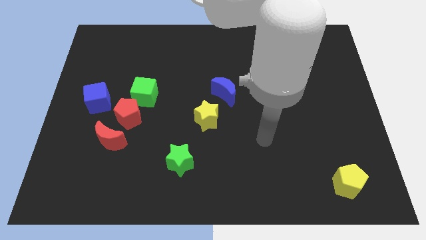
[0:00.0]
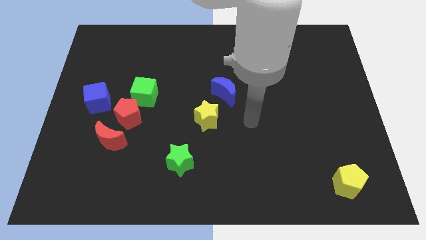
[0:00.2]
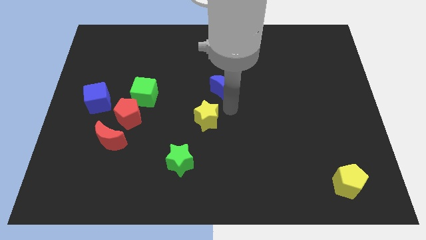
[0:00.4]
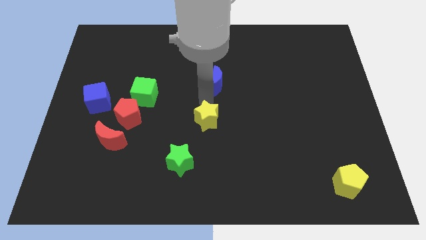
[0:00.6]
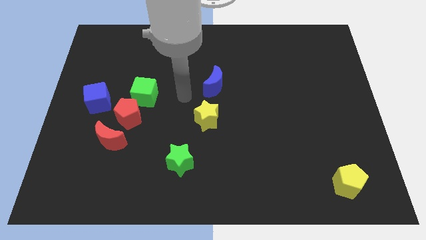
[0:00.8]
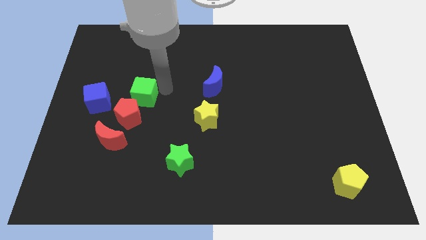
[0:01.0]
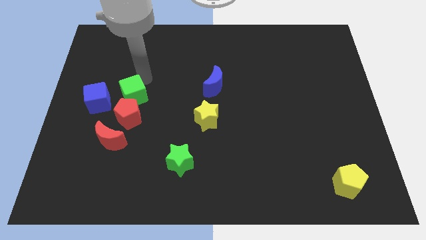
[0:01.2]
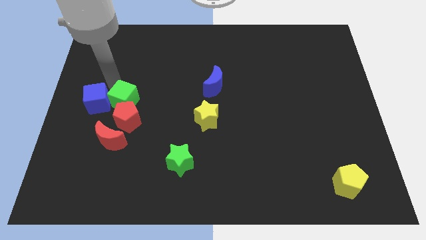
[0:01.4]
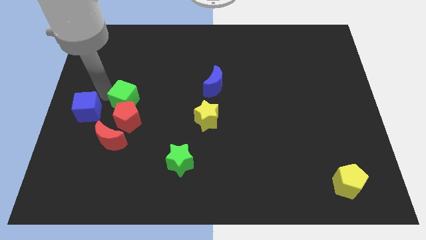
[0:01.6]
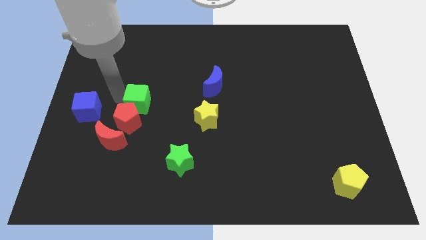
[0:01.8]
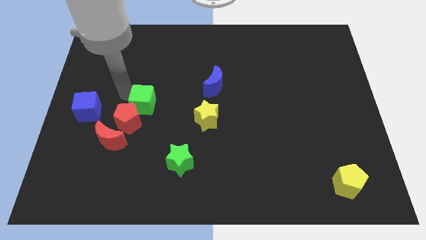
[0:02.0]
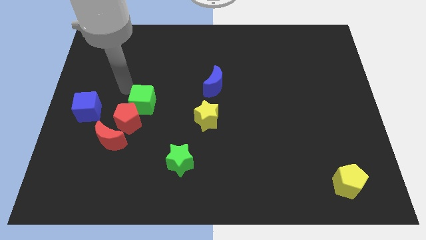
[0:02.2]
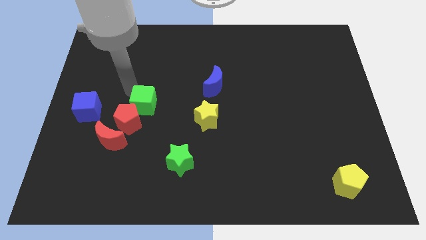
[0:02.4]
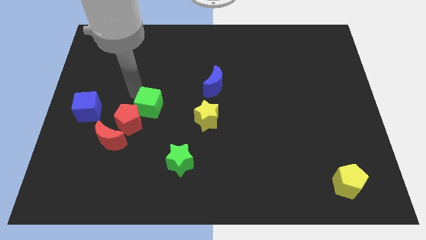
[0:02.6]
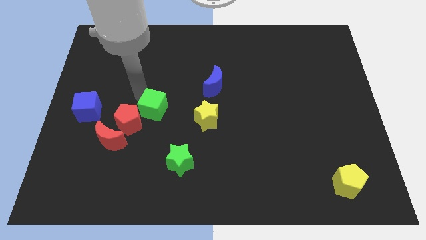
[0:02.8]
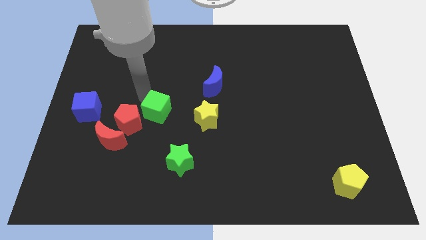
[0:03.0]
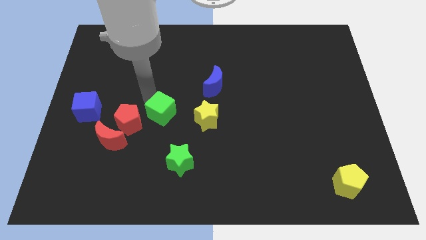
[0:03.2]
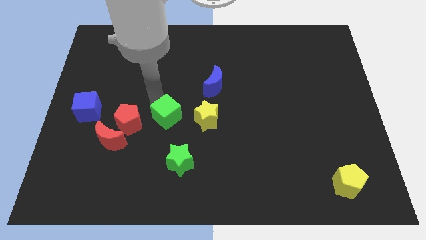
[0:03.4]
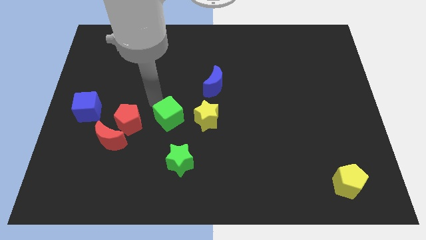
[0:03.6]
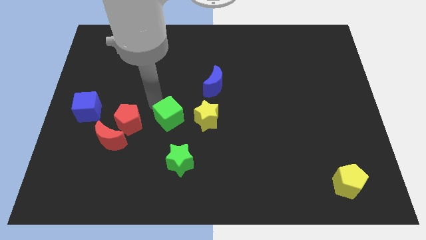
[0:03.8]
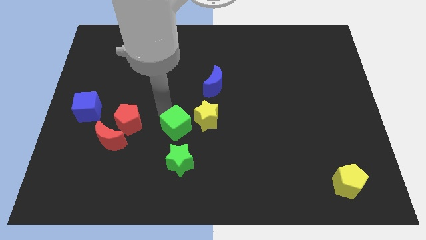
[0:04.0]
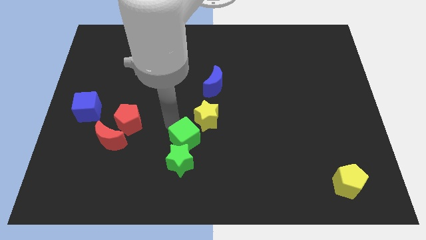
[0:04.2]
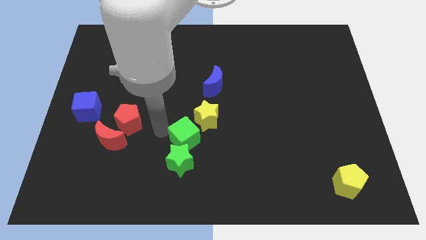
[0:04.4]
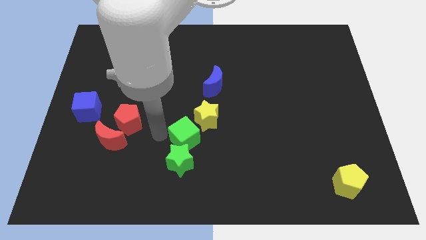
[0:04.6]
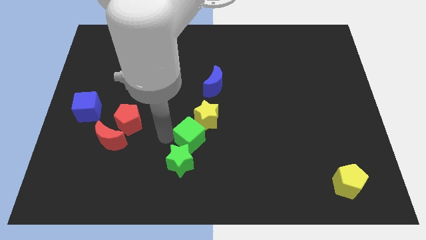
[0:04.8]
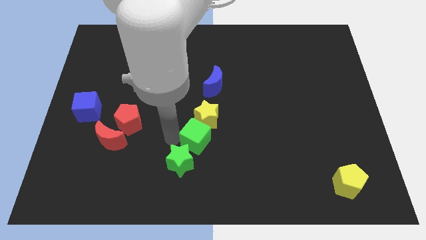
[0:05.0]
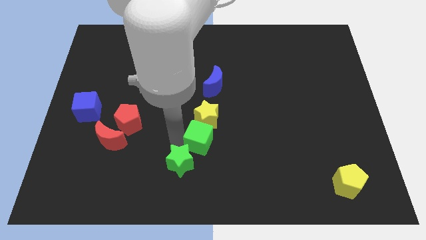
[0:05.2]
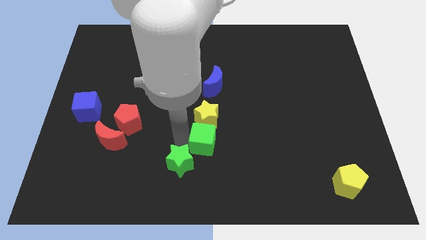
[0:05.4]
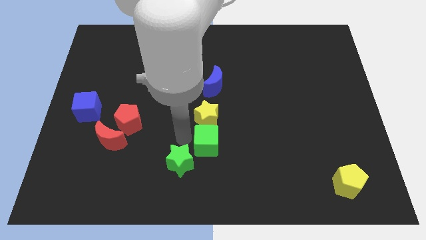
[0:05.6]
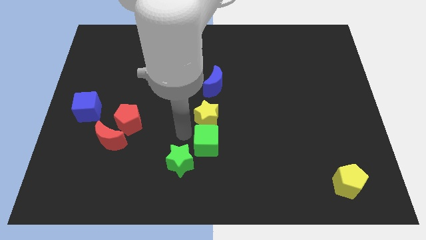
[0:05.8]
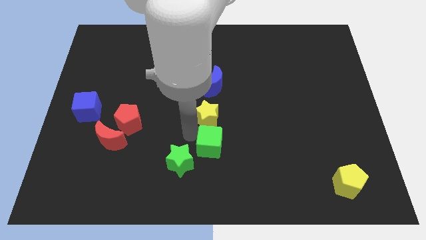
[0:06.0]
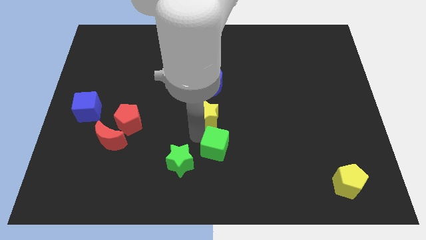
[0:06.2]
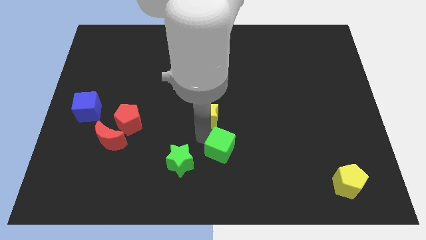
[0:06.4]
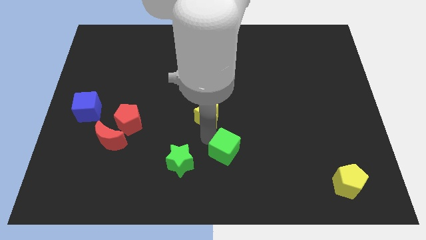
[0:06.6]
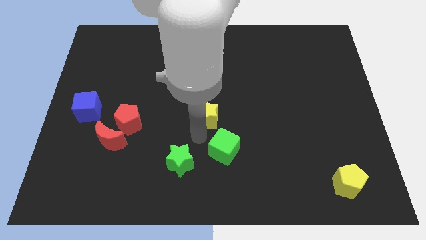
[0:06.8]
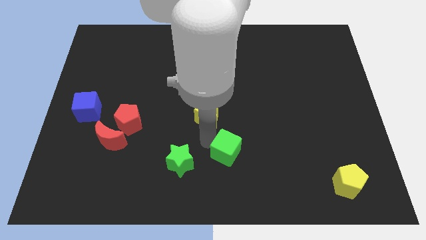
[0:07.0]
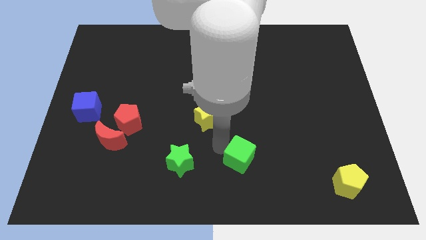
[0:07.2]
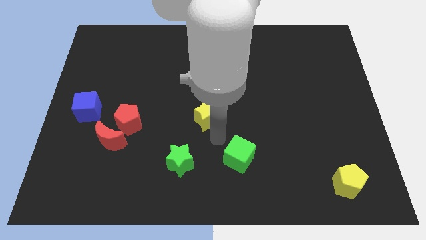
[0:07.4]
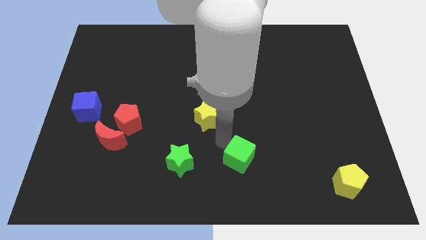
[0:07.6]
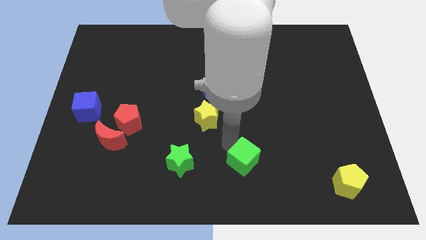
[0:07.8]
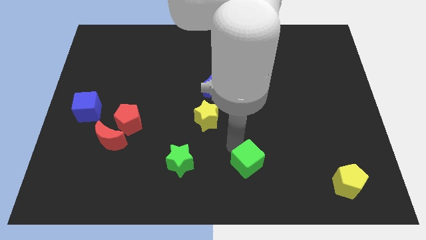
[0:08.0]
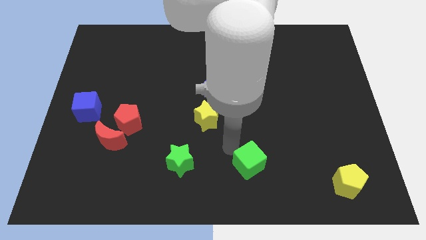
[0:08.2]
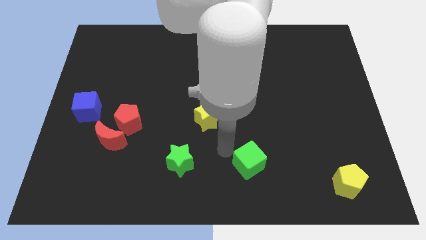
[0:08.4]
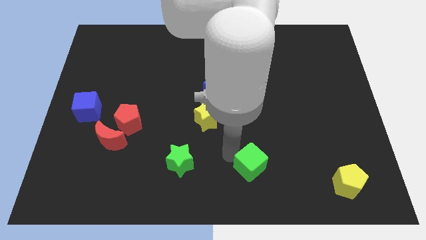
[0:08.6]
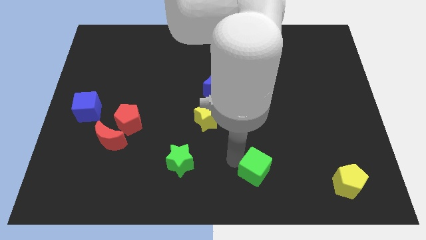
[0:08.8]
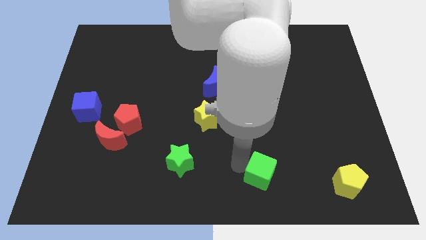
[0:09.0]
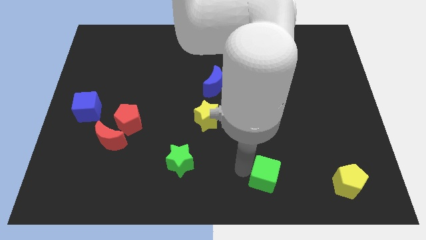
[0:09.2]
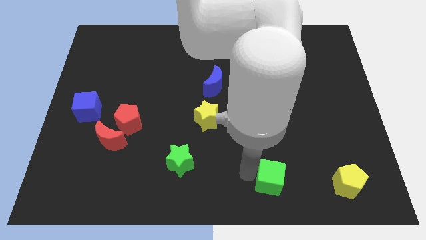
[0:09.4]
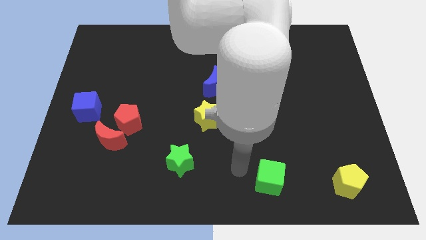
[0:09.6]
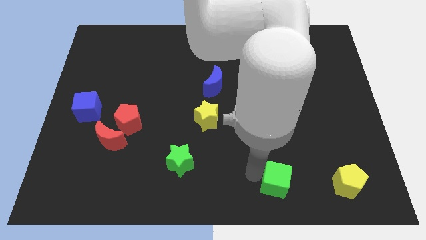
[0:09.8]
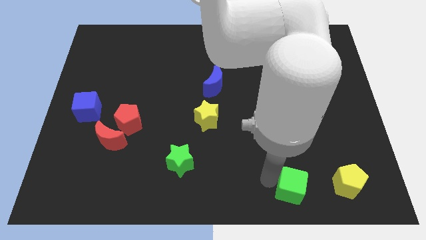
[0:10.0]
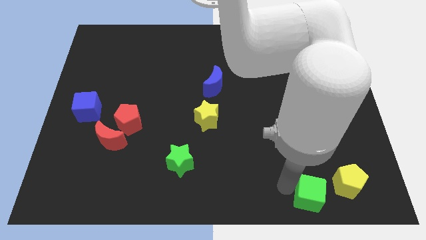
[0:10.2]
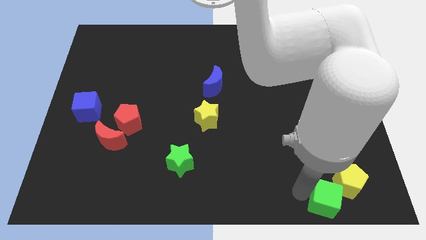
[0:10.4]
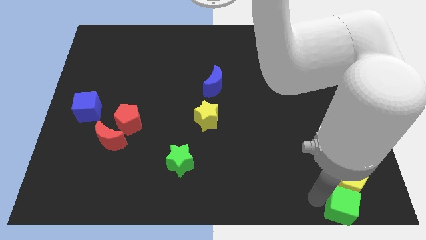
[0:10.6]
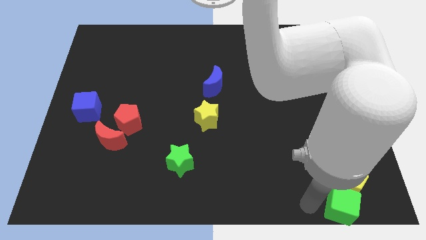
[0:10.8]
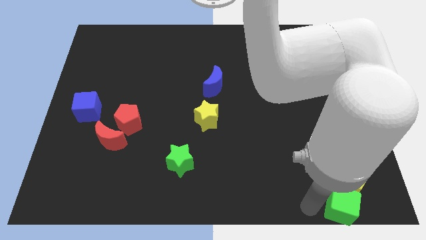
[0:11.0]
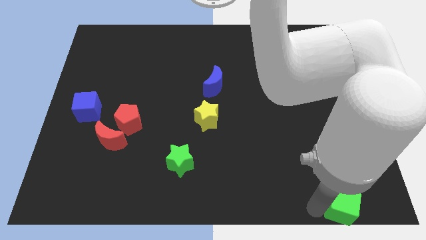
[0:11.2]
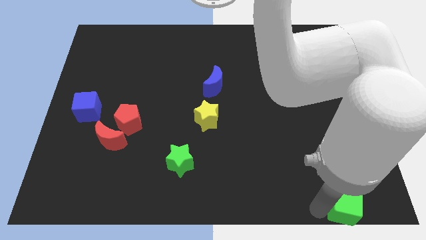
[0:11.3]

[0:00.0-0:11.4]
slide the green cube to the bottom right
